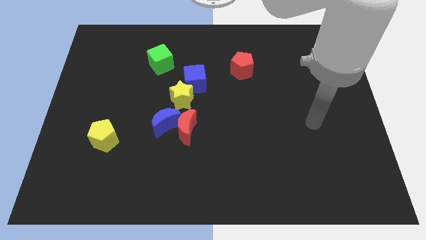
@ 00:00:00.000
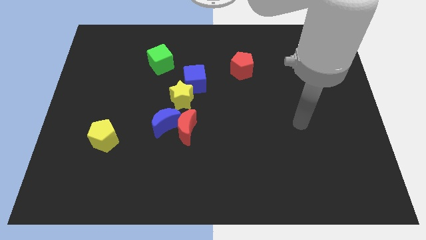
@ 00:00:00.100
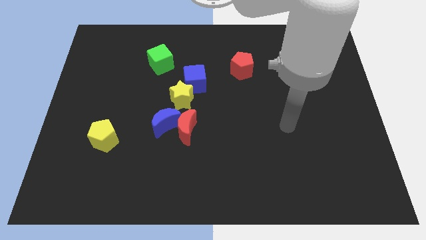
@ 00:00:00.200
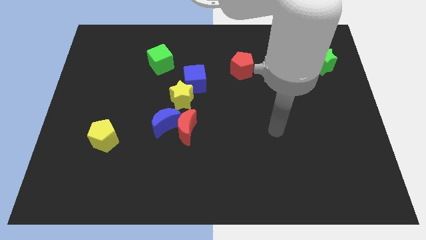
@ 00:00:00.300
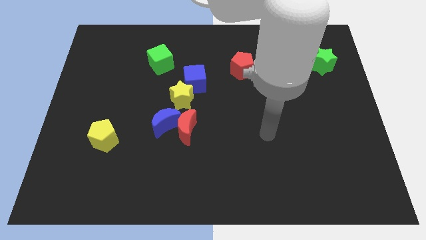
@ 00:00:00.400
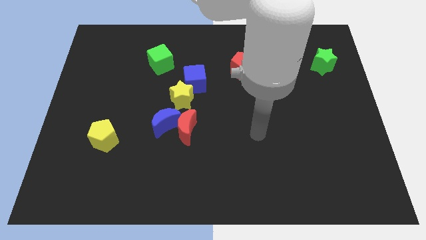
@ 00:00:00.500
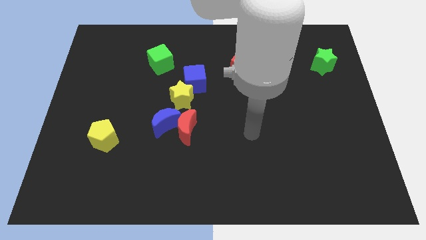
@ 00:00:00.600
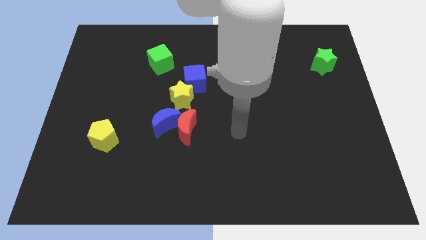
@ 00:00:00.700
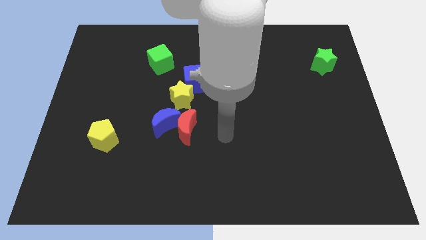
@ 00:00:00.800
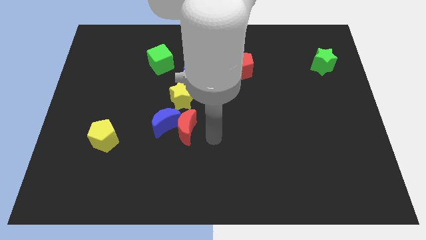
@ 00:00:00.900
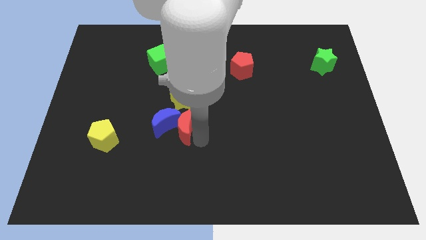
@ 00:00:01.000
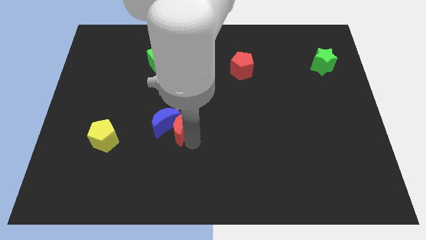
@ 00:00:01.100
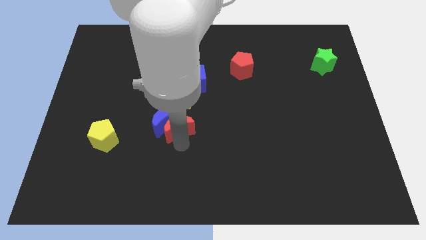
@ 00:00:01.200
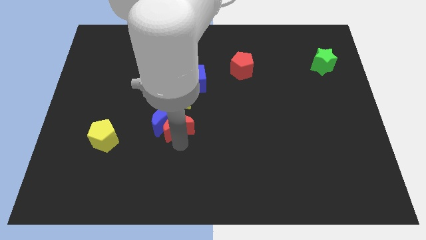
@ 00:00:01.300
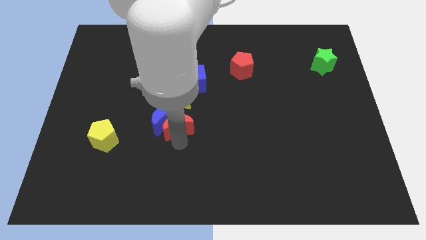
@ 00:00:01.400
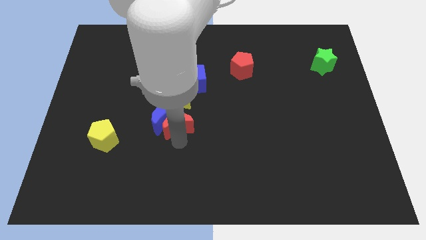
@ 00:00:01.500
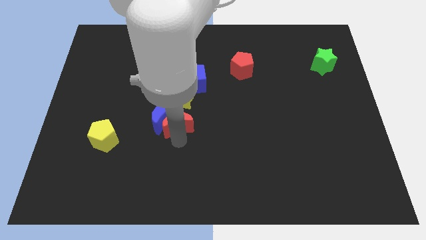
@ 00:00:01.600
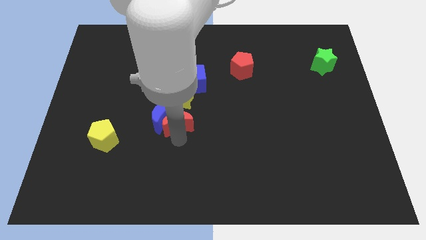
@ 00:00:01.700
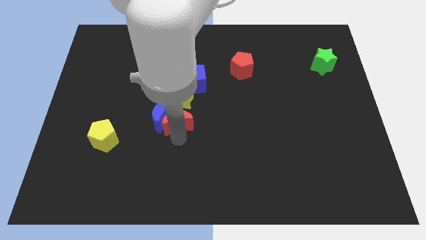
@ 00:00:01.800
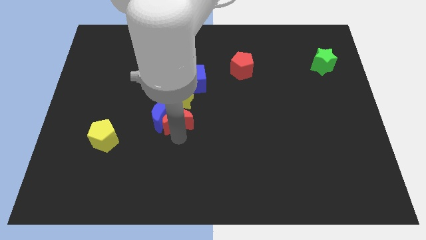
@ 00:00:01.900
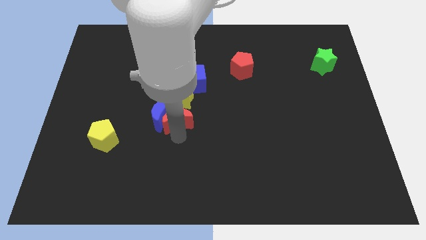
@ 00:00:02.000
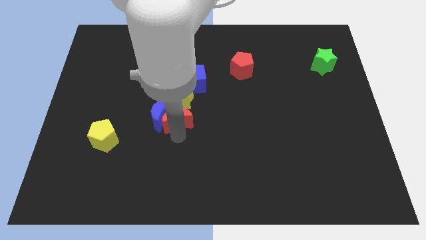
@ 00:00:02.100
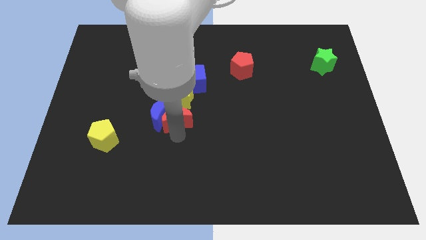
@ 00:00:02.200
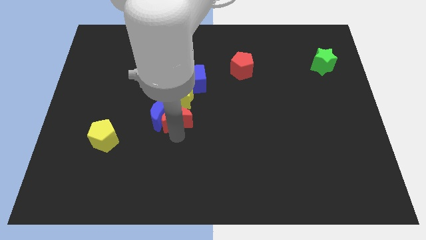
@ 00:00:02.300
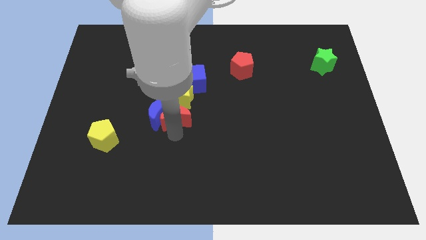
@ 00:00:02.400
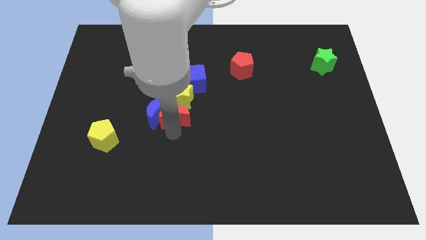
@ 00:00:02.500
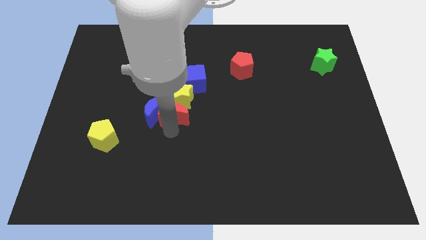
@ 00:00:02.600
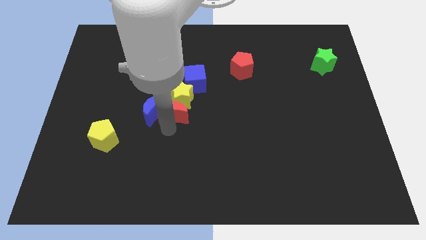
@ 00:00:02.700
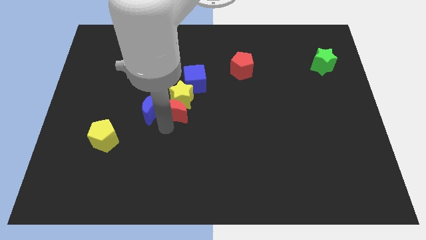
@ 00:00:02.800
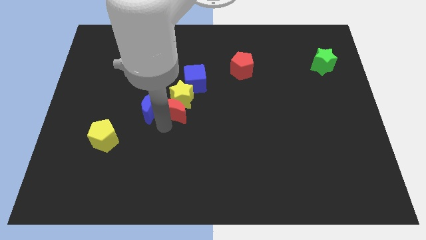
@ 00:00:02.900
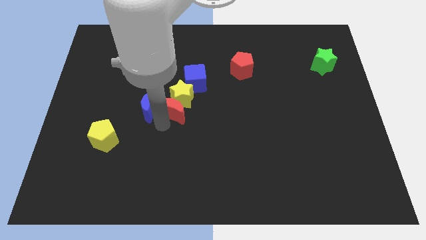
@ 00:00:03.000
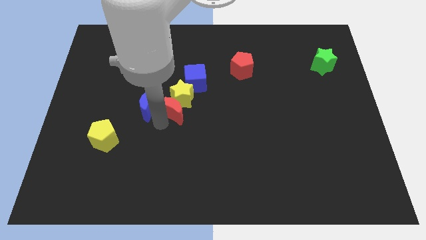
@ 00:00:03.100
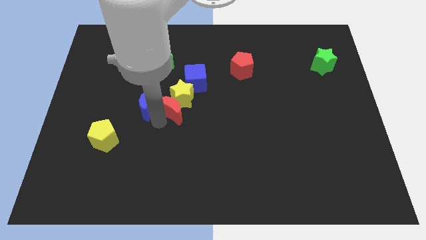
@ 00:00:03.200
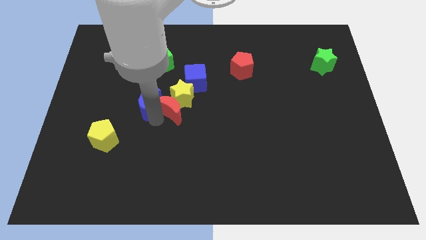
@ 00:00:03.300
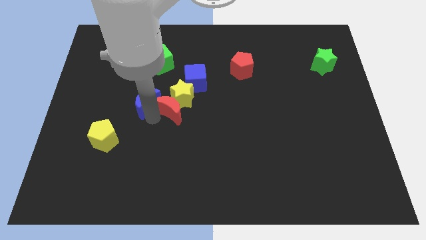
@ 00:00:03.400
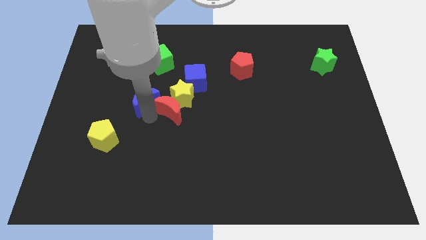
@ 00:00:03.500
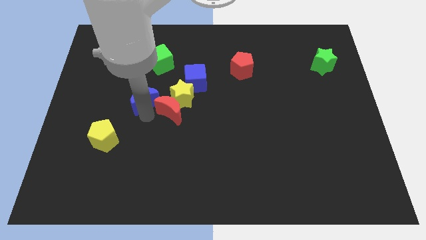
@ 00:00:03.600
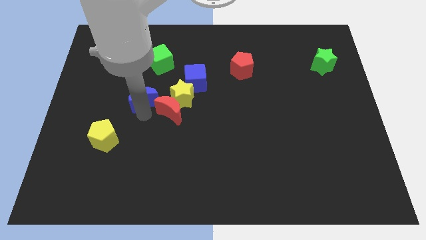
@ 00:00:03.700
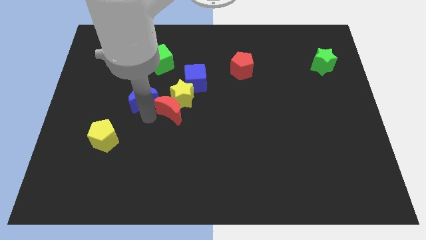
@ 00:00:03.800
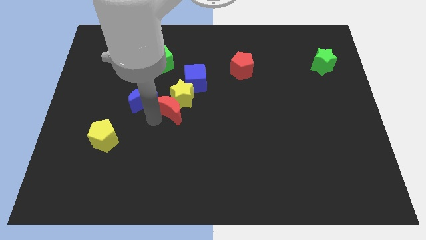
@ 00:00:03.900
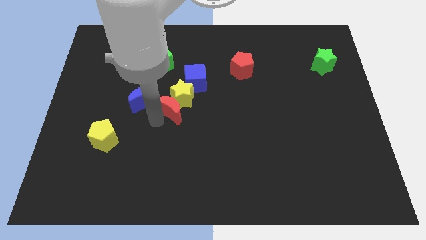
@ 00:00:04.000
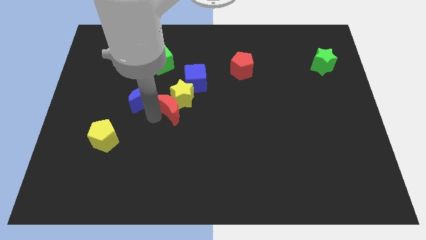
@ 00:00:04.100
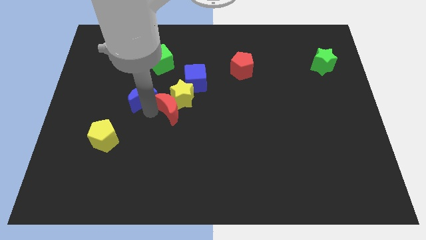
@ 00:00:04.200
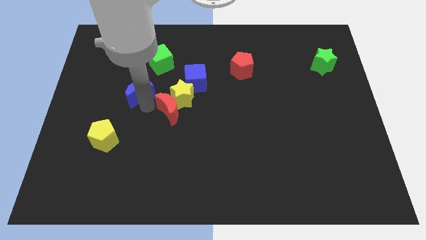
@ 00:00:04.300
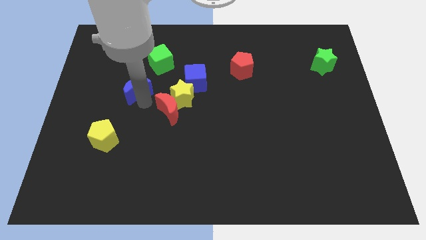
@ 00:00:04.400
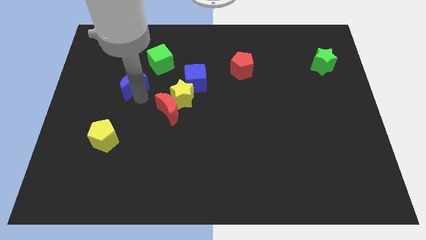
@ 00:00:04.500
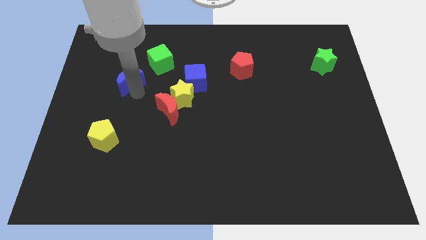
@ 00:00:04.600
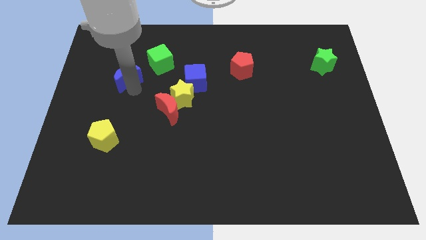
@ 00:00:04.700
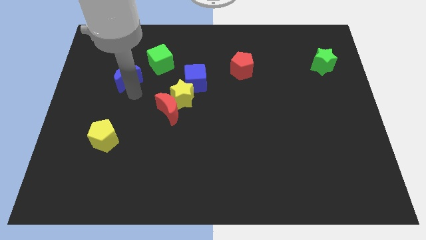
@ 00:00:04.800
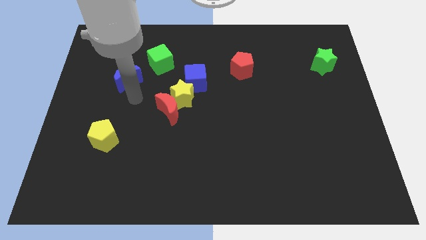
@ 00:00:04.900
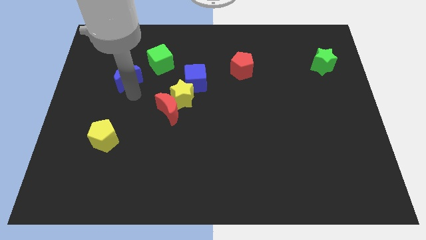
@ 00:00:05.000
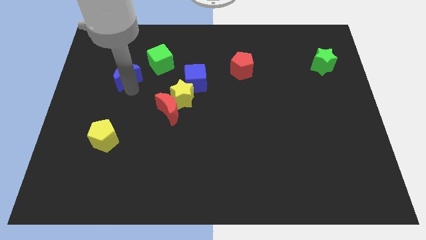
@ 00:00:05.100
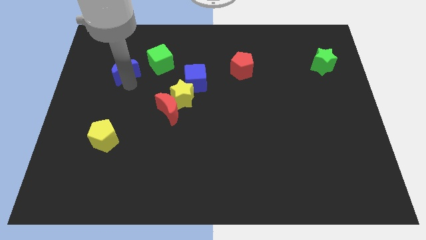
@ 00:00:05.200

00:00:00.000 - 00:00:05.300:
slide the blue moon left of the green cube
